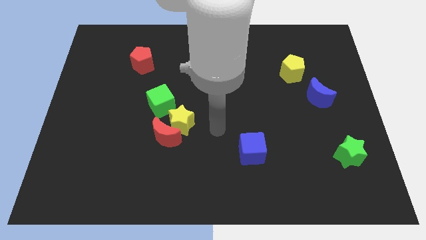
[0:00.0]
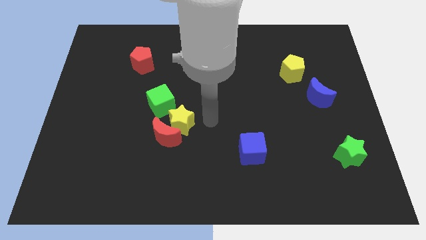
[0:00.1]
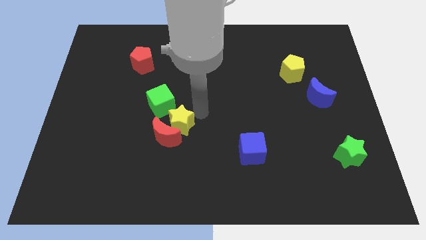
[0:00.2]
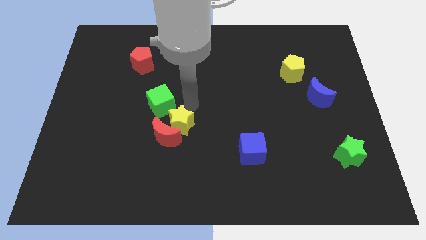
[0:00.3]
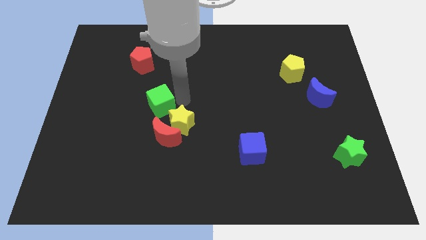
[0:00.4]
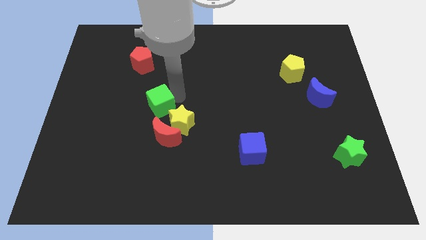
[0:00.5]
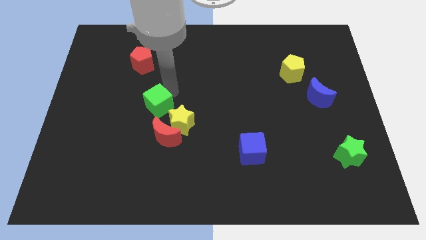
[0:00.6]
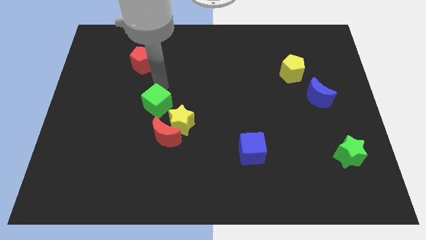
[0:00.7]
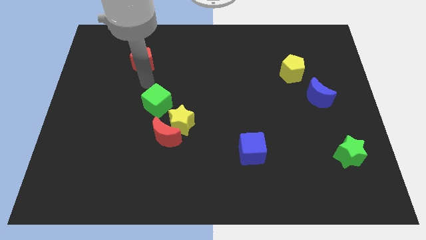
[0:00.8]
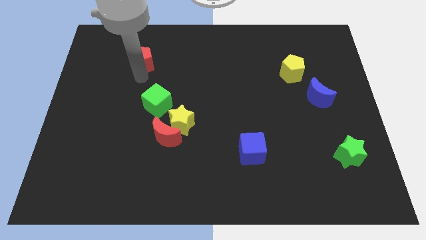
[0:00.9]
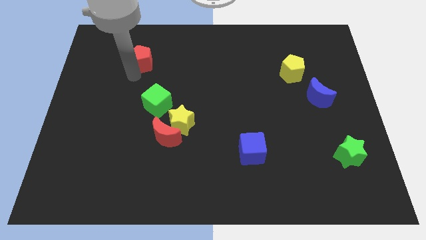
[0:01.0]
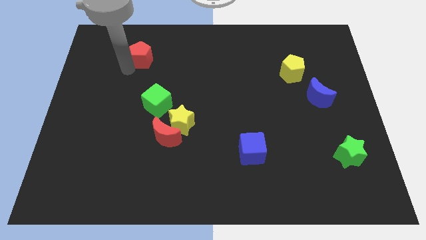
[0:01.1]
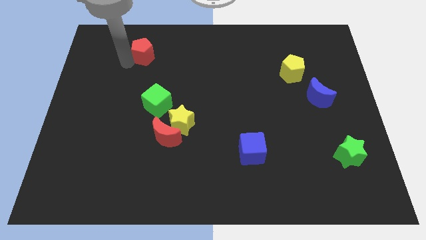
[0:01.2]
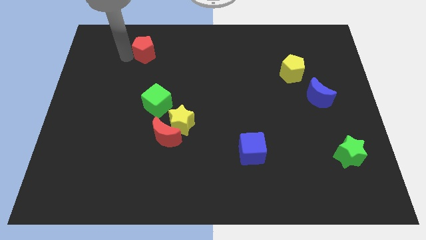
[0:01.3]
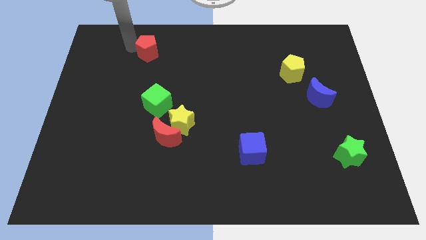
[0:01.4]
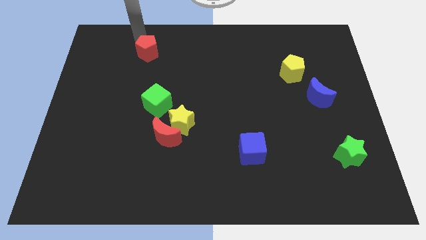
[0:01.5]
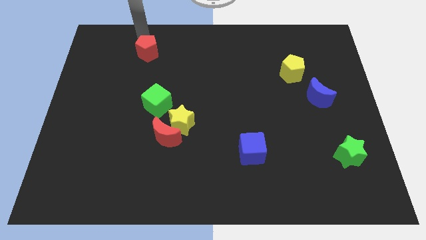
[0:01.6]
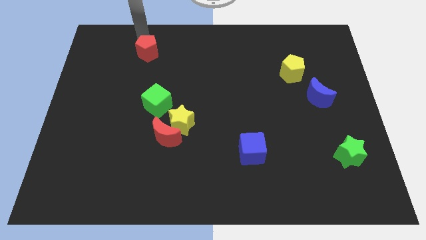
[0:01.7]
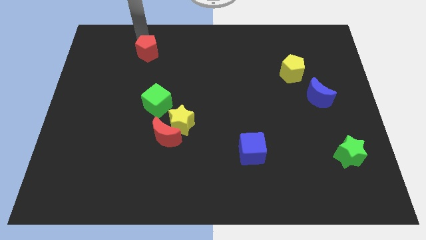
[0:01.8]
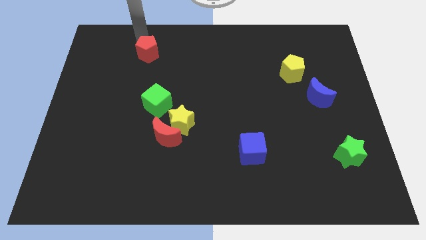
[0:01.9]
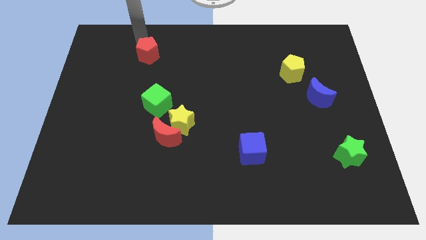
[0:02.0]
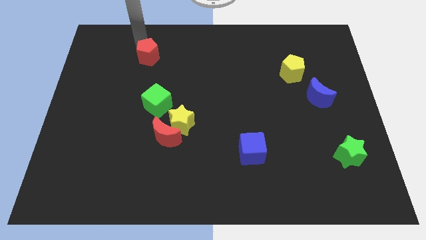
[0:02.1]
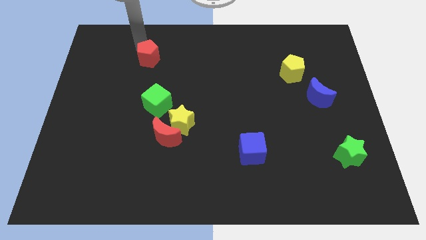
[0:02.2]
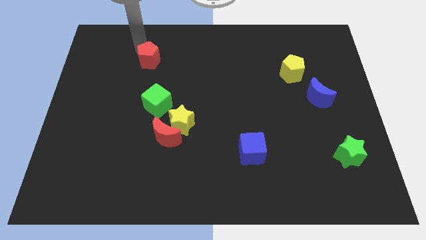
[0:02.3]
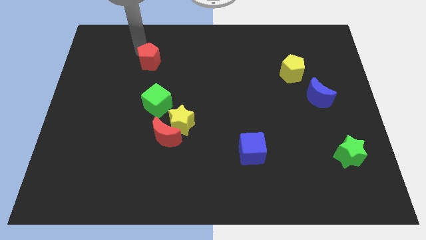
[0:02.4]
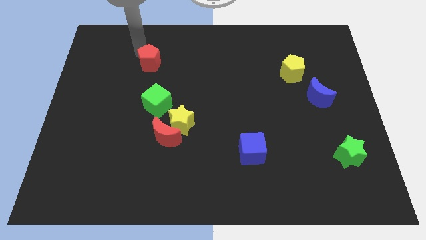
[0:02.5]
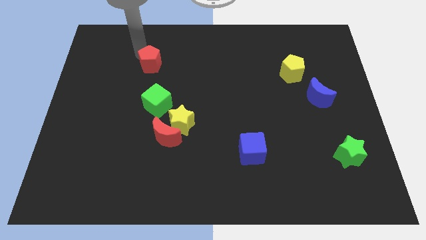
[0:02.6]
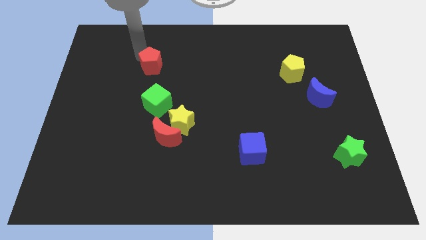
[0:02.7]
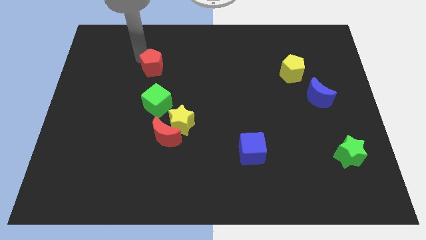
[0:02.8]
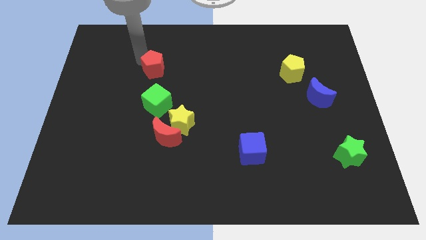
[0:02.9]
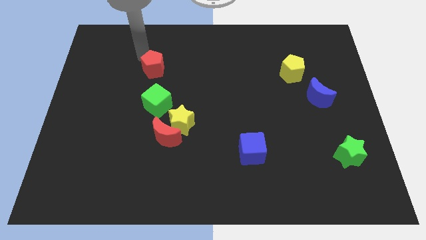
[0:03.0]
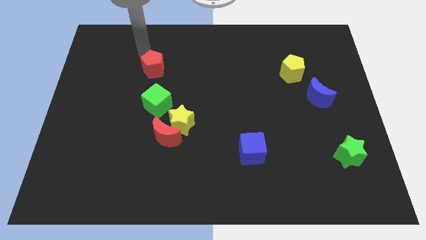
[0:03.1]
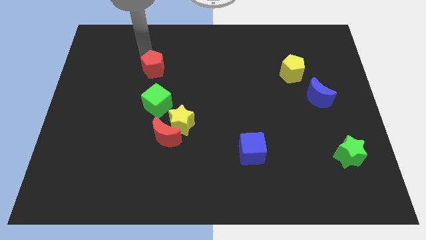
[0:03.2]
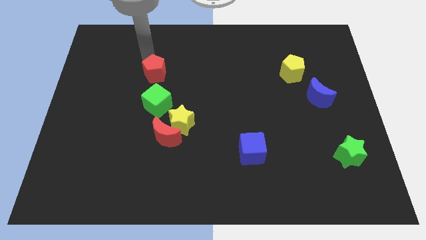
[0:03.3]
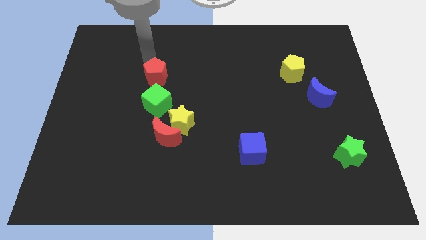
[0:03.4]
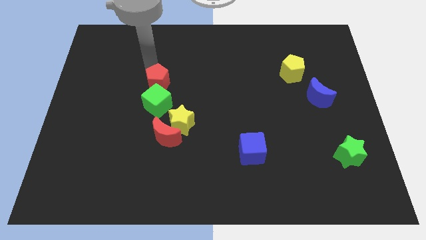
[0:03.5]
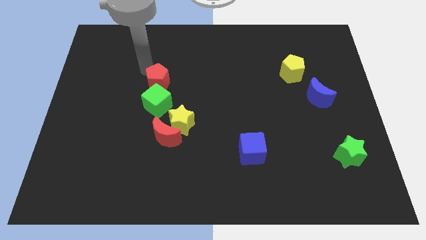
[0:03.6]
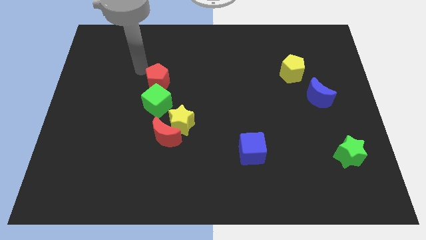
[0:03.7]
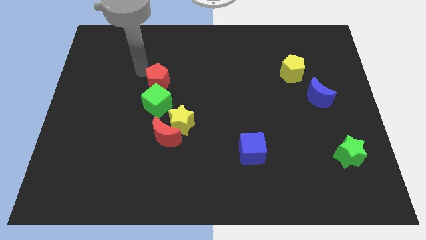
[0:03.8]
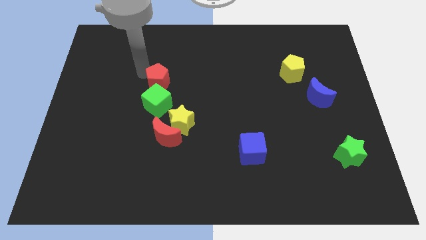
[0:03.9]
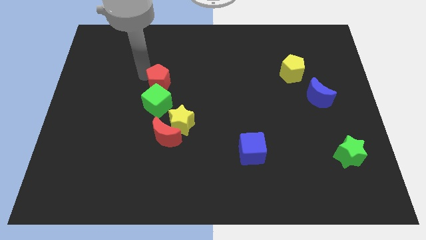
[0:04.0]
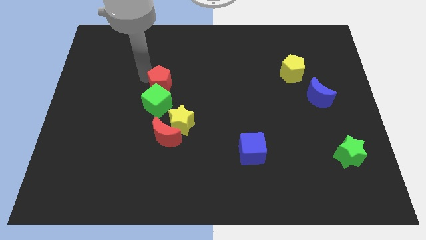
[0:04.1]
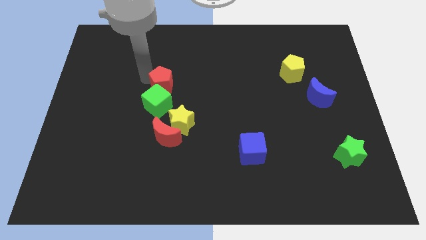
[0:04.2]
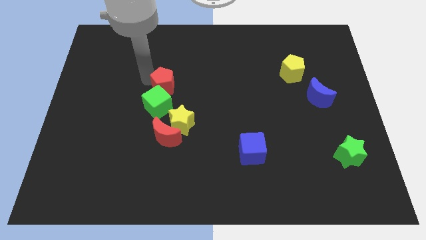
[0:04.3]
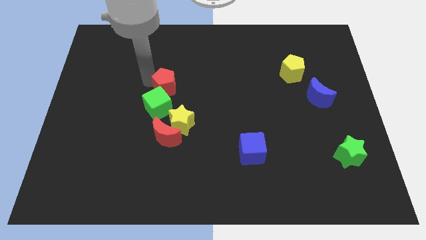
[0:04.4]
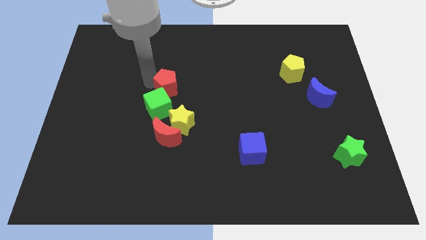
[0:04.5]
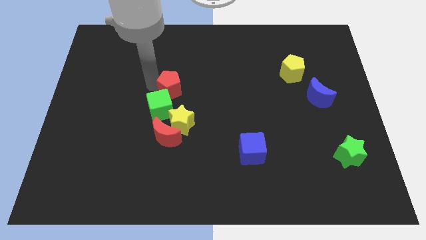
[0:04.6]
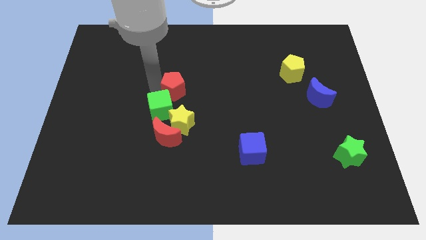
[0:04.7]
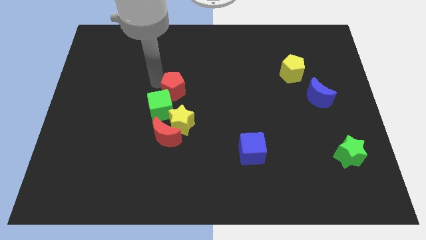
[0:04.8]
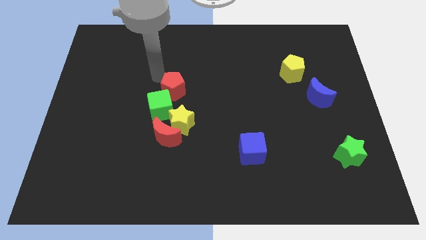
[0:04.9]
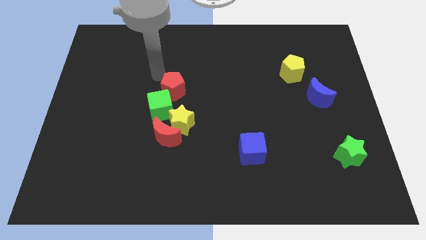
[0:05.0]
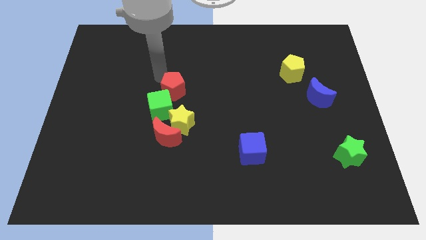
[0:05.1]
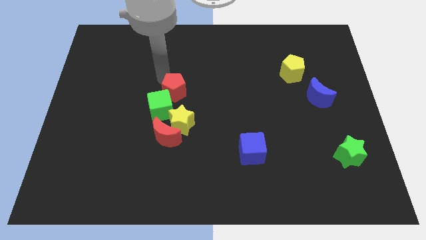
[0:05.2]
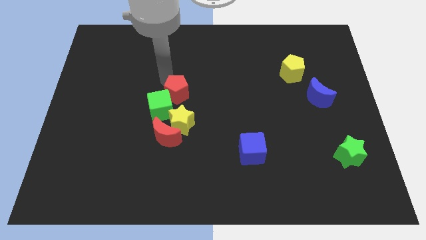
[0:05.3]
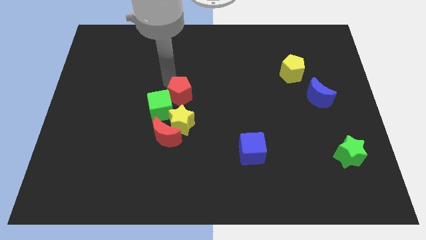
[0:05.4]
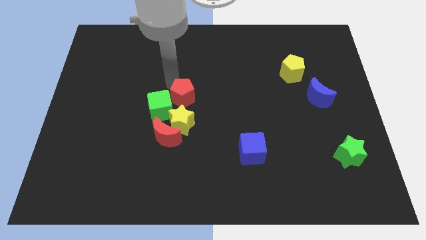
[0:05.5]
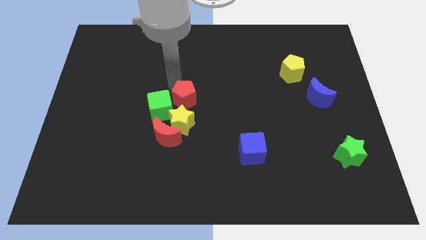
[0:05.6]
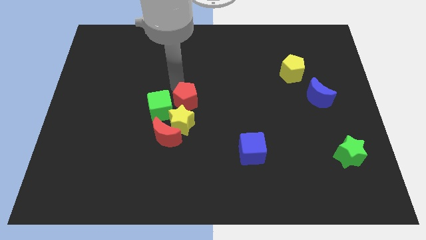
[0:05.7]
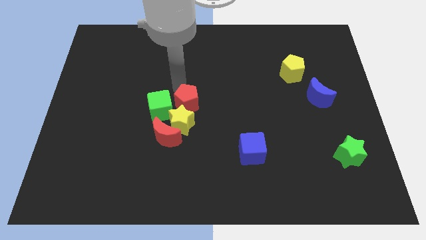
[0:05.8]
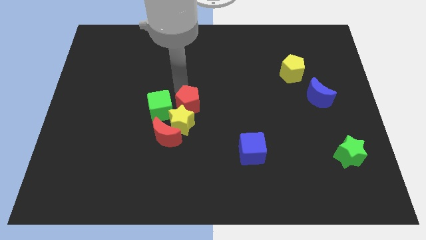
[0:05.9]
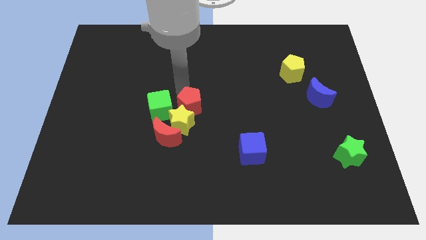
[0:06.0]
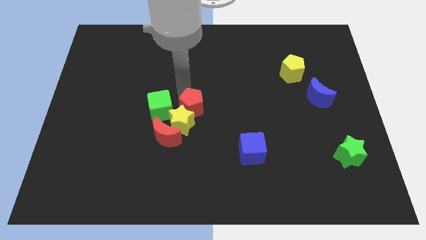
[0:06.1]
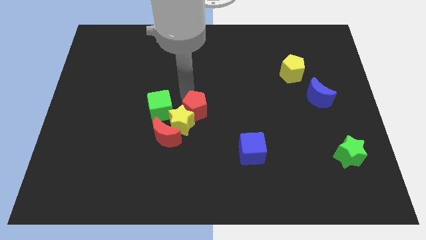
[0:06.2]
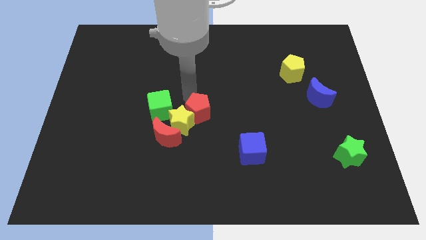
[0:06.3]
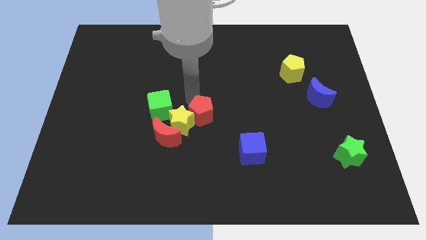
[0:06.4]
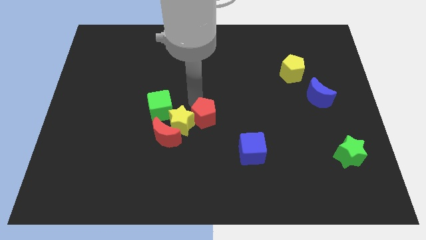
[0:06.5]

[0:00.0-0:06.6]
push the red pentagon diagonally down and to the right of the yellow star
